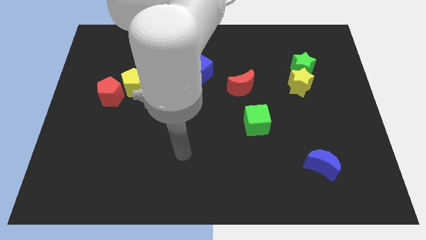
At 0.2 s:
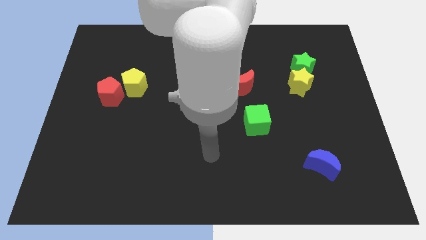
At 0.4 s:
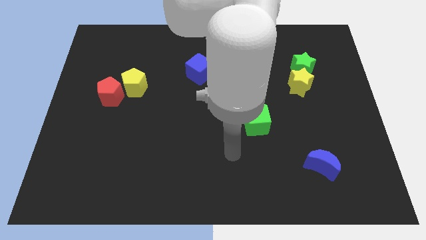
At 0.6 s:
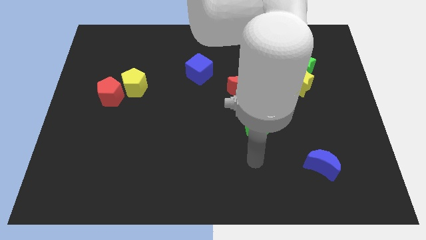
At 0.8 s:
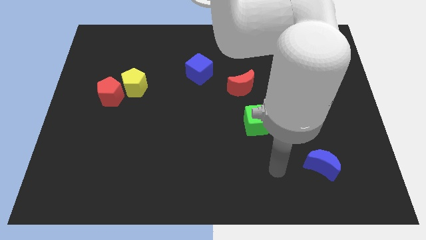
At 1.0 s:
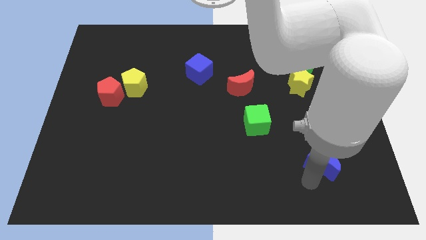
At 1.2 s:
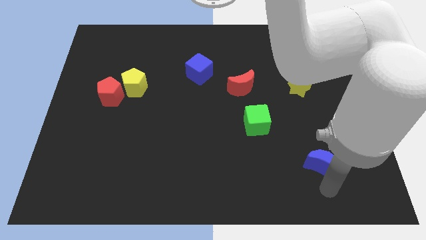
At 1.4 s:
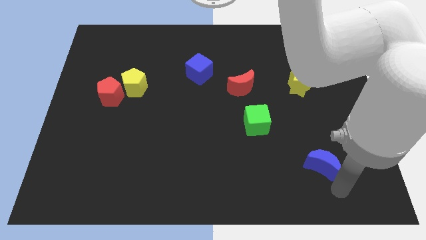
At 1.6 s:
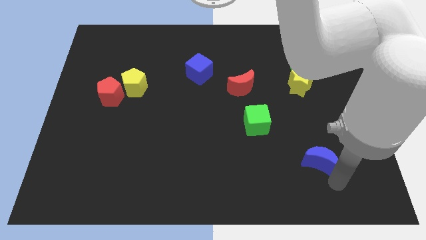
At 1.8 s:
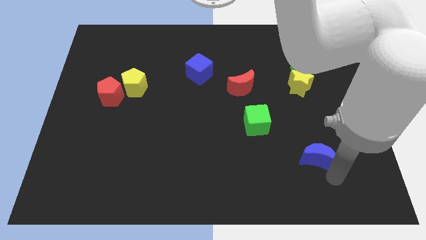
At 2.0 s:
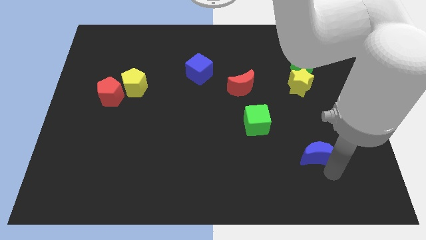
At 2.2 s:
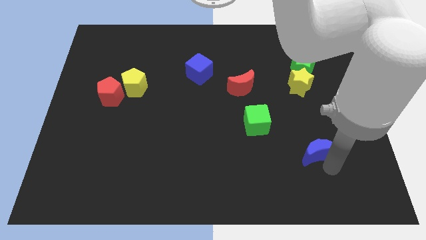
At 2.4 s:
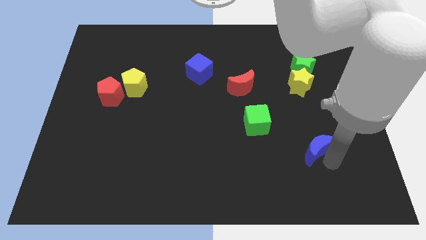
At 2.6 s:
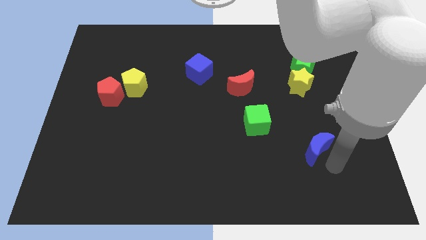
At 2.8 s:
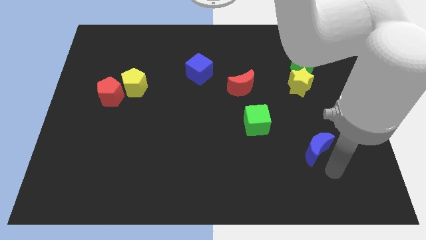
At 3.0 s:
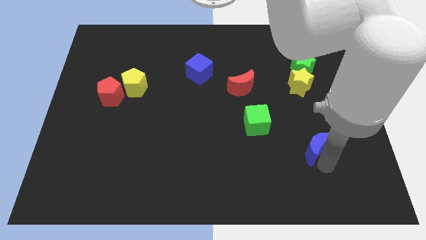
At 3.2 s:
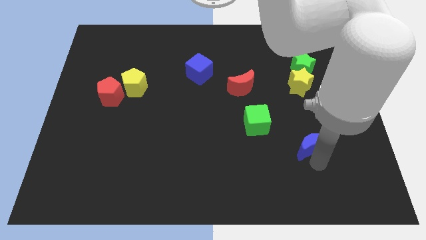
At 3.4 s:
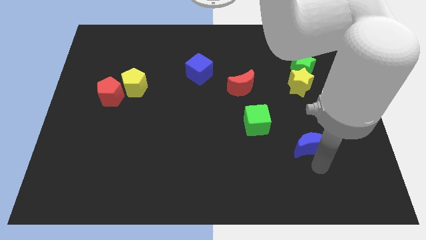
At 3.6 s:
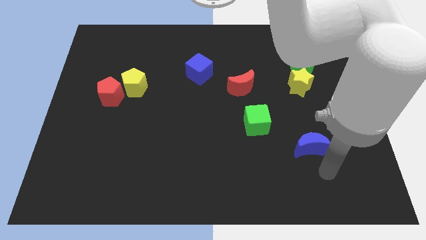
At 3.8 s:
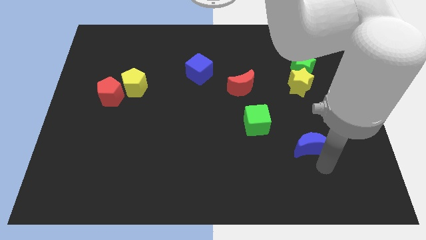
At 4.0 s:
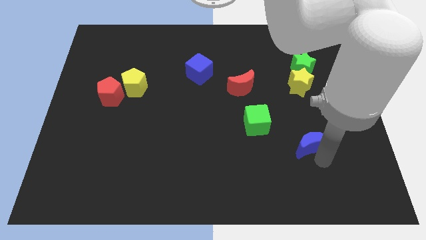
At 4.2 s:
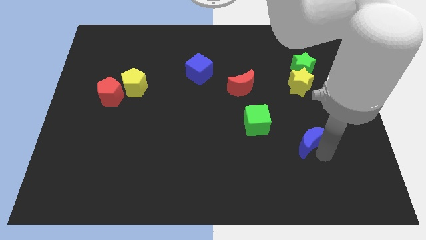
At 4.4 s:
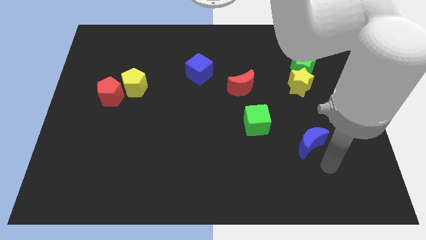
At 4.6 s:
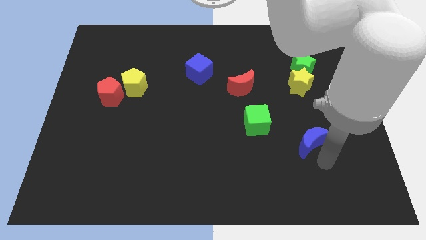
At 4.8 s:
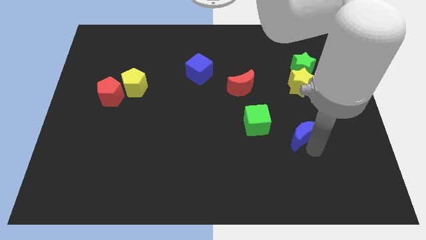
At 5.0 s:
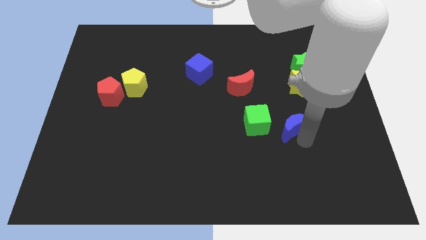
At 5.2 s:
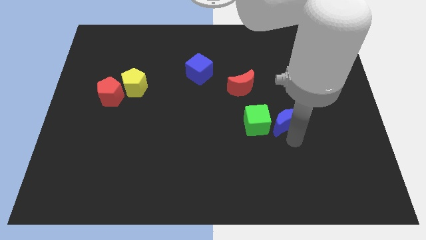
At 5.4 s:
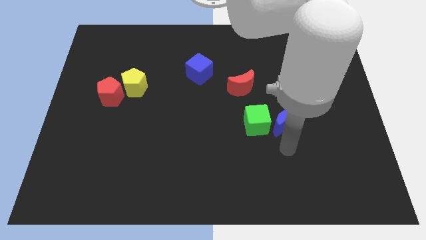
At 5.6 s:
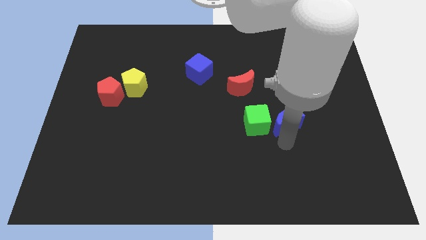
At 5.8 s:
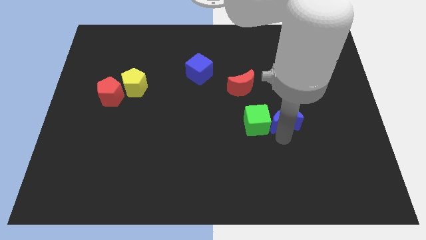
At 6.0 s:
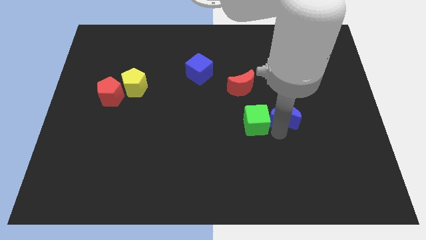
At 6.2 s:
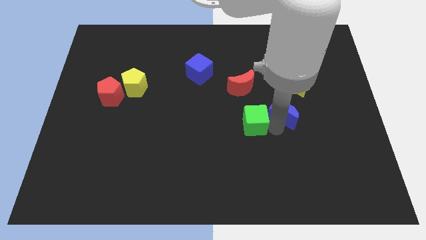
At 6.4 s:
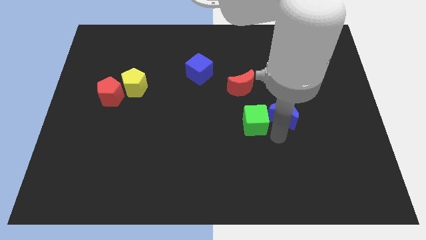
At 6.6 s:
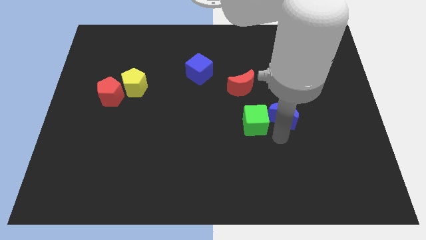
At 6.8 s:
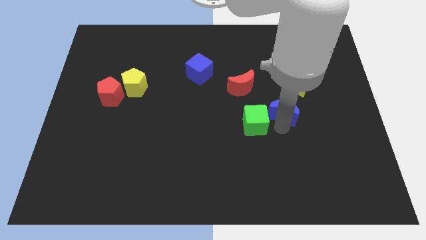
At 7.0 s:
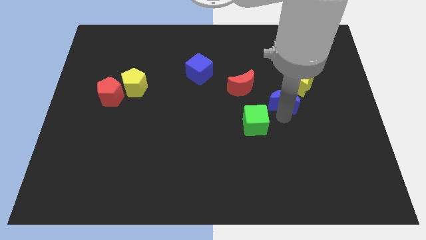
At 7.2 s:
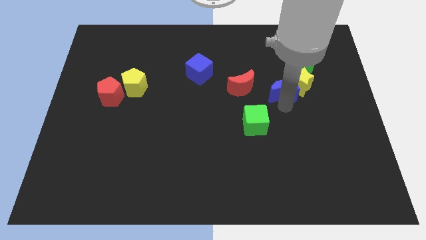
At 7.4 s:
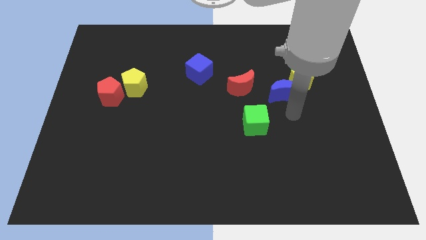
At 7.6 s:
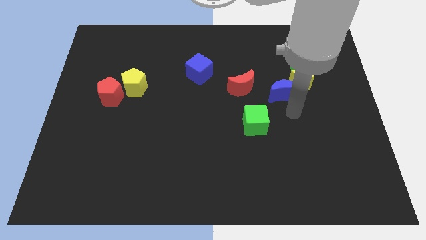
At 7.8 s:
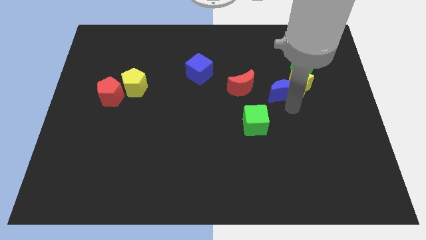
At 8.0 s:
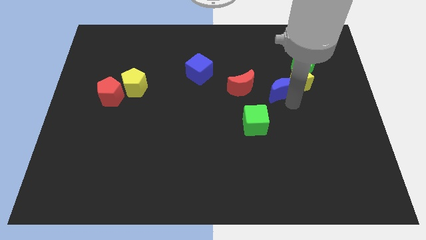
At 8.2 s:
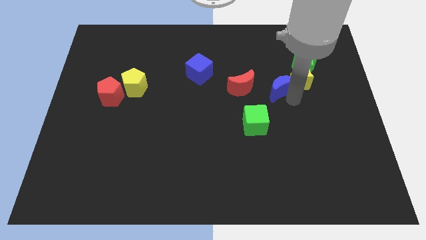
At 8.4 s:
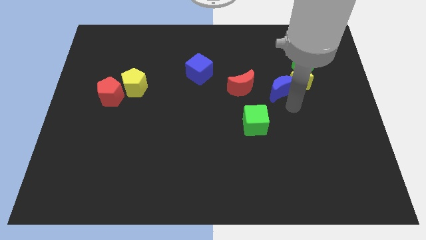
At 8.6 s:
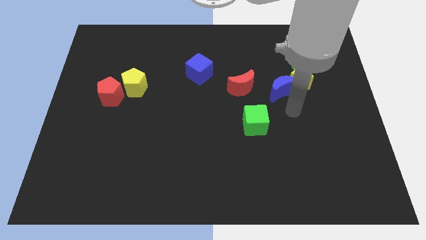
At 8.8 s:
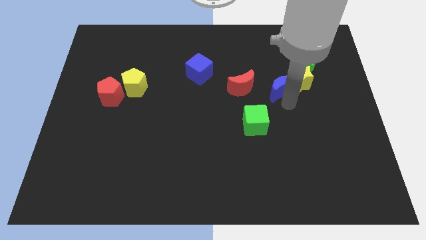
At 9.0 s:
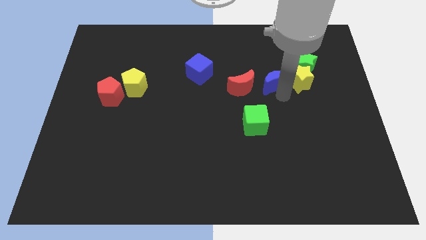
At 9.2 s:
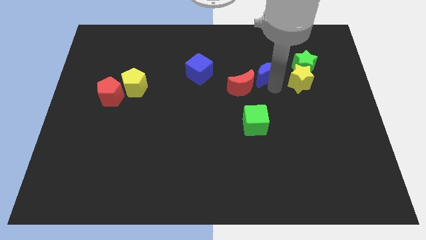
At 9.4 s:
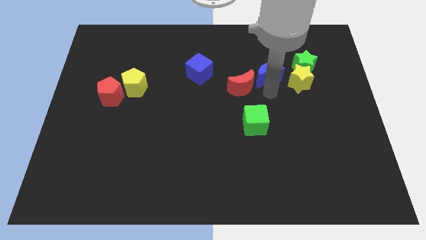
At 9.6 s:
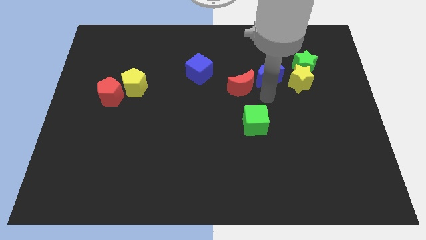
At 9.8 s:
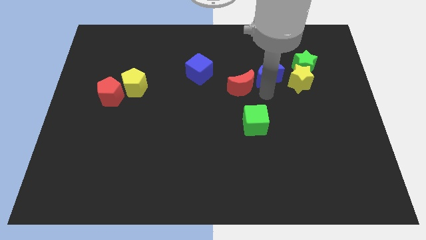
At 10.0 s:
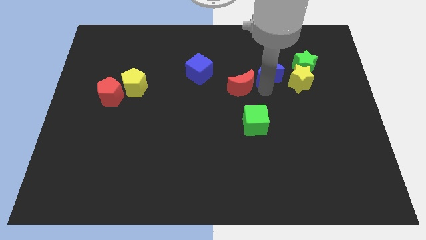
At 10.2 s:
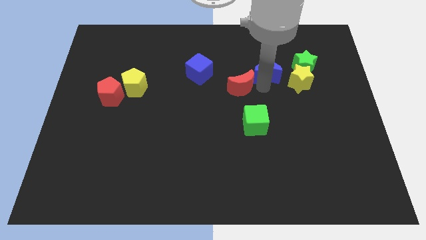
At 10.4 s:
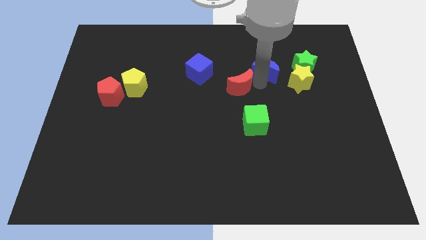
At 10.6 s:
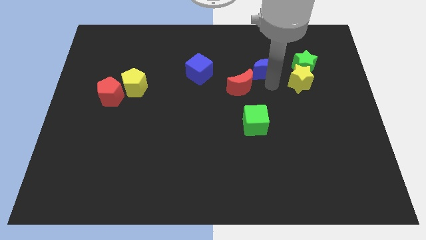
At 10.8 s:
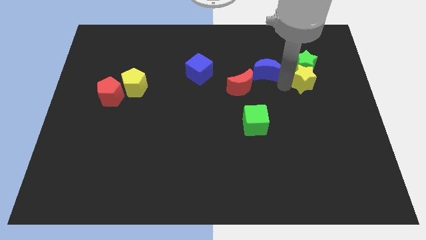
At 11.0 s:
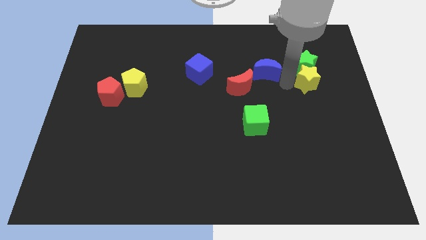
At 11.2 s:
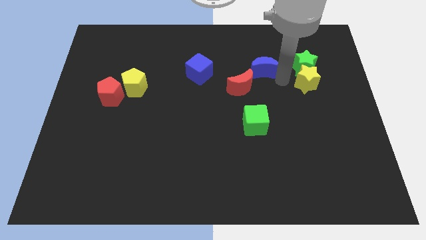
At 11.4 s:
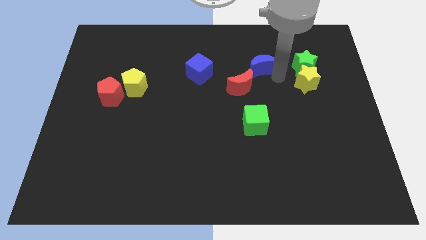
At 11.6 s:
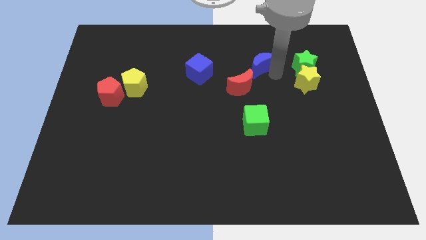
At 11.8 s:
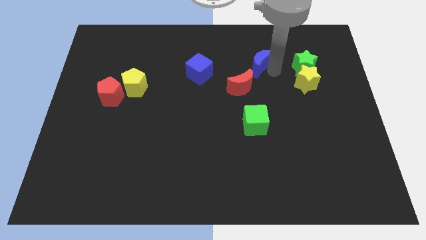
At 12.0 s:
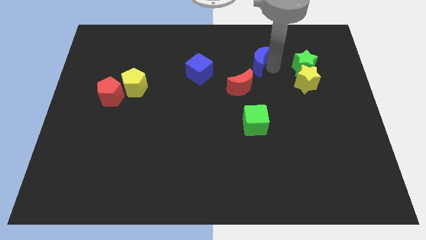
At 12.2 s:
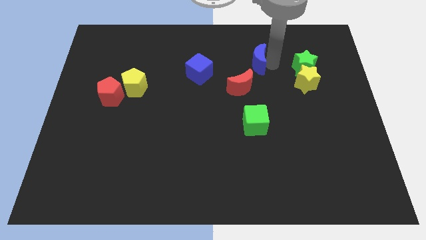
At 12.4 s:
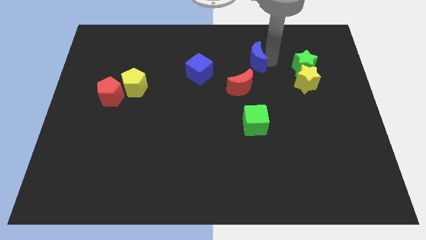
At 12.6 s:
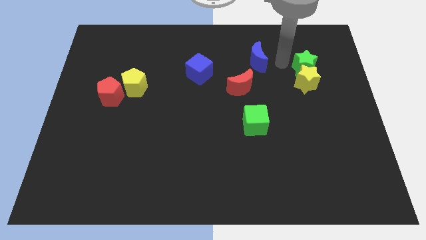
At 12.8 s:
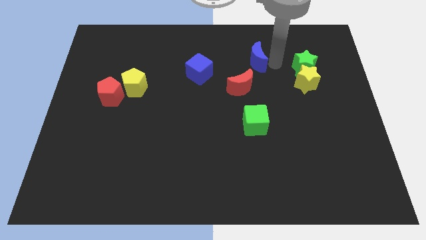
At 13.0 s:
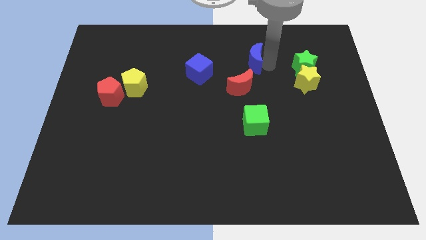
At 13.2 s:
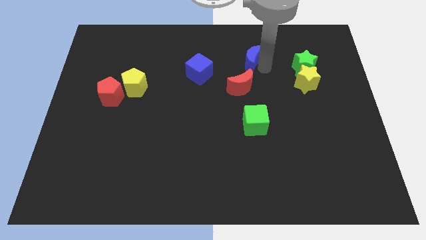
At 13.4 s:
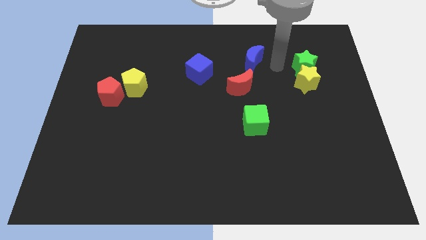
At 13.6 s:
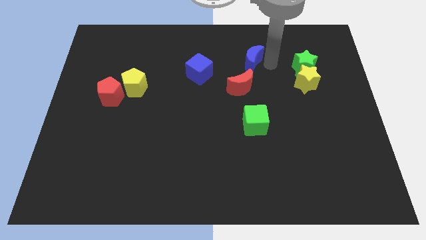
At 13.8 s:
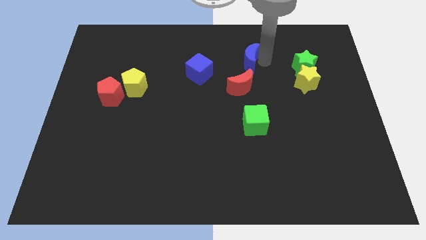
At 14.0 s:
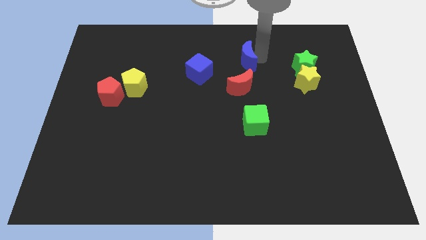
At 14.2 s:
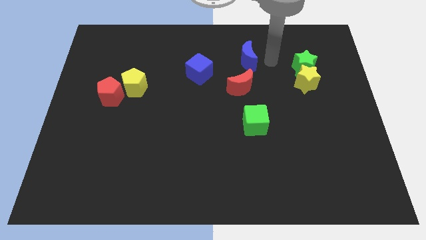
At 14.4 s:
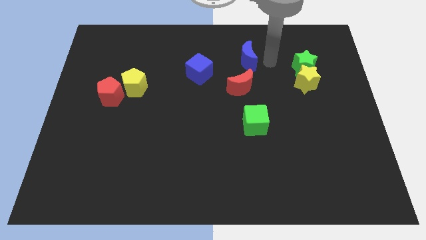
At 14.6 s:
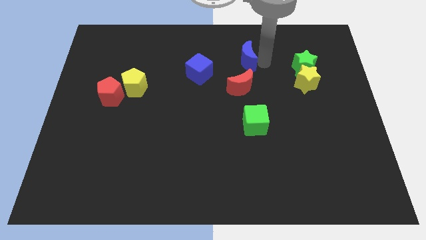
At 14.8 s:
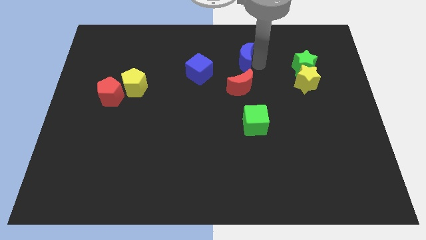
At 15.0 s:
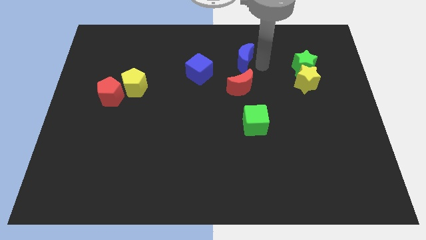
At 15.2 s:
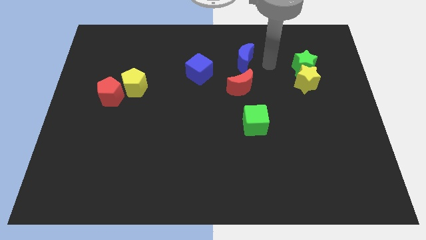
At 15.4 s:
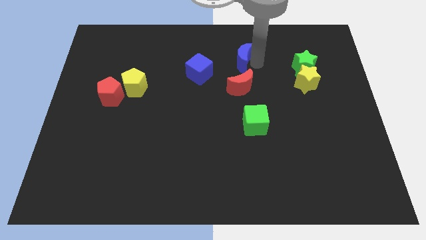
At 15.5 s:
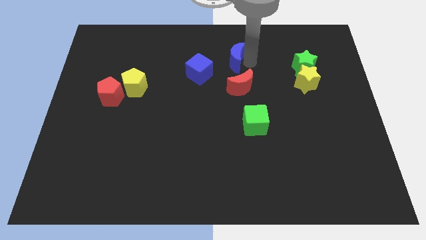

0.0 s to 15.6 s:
push the blue moon to the top right of the blue cube
